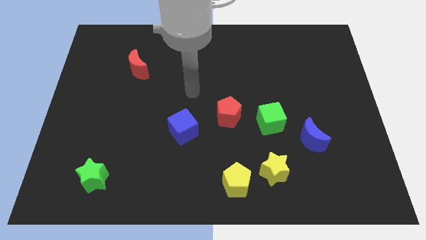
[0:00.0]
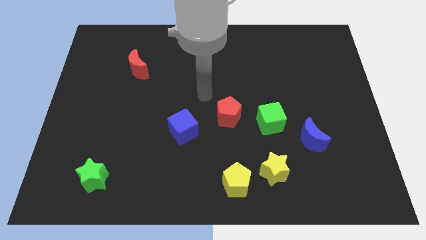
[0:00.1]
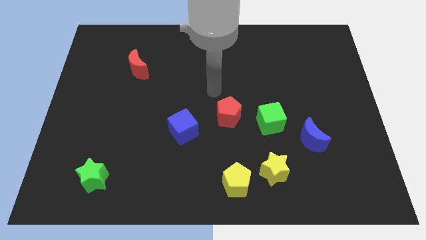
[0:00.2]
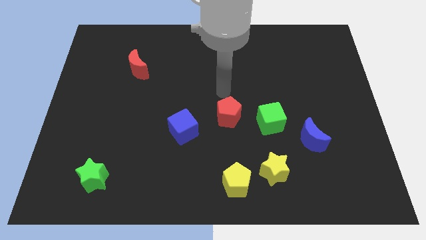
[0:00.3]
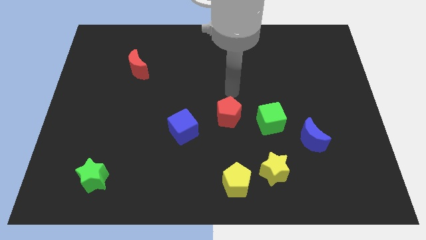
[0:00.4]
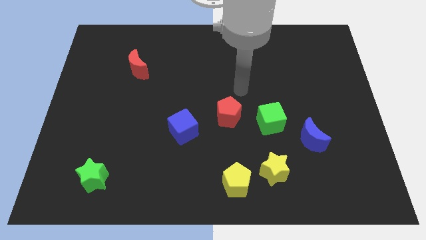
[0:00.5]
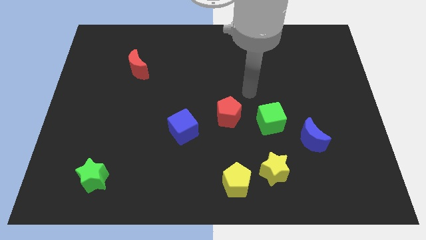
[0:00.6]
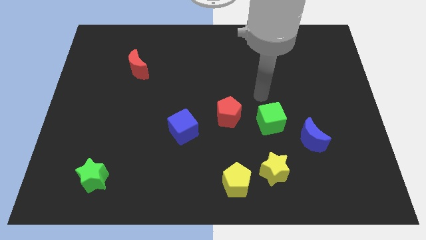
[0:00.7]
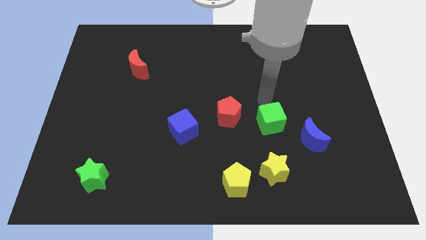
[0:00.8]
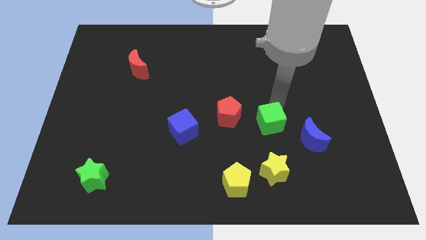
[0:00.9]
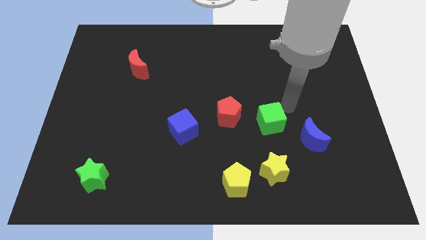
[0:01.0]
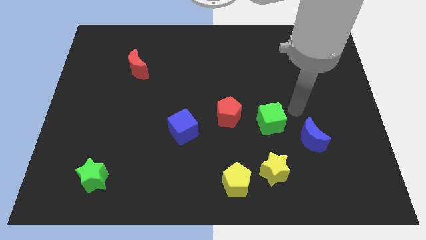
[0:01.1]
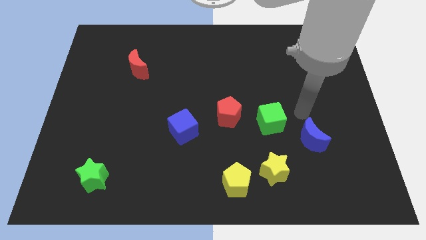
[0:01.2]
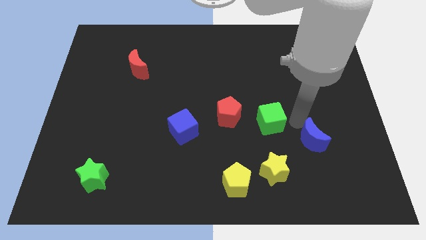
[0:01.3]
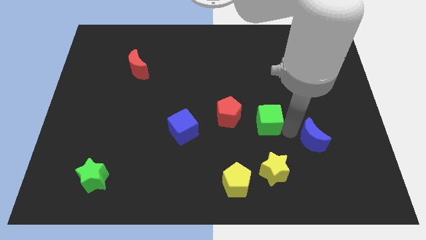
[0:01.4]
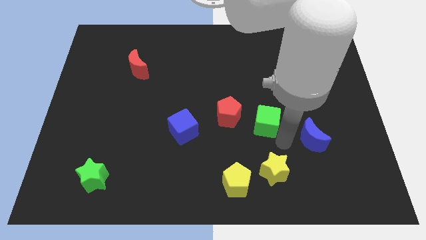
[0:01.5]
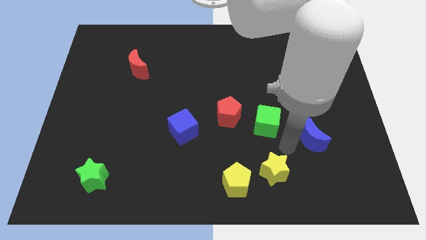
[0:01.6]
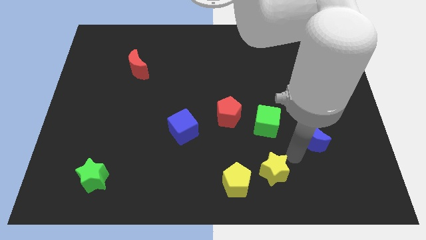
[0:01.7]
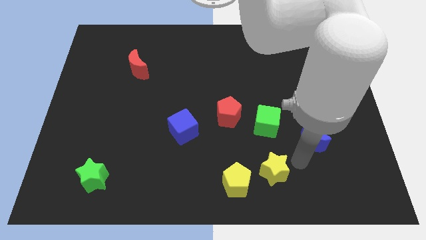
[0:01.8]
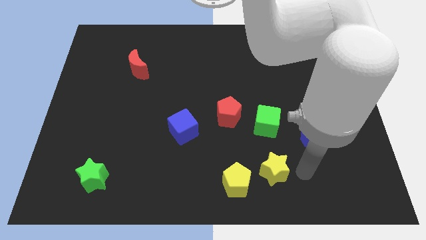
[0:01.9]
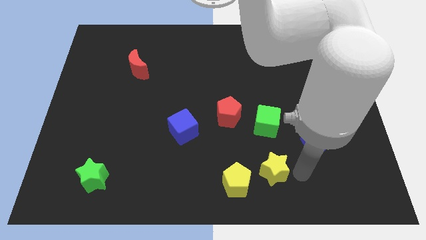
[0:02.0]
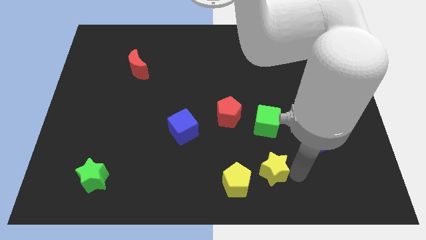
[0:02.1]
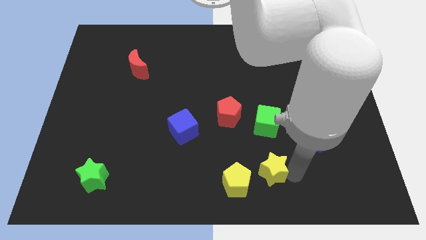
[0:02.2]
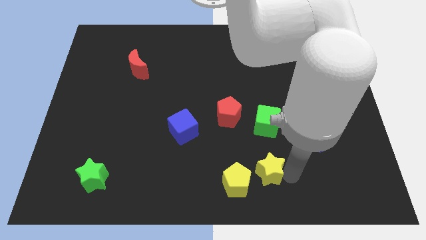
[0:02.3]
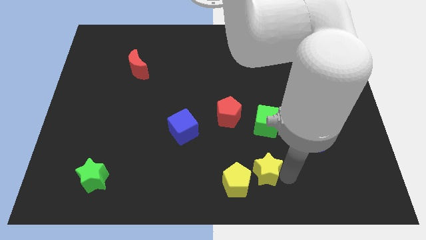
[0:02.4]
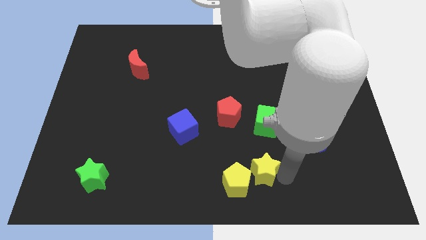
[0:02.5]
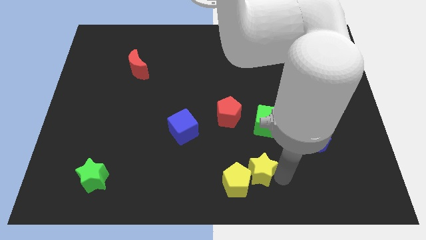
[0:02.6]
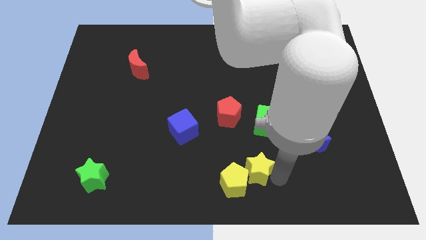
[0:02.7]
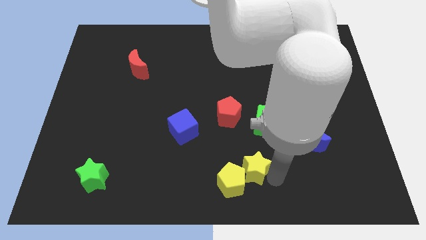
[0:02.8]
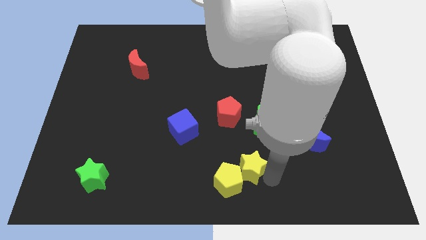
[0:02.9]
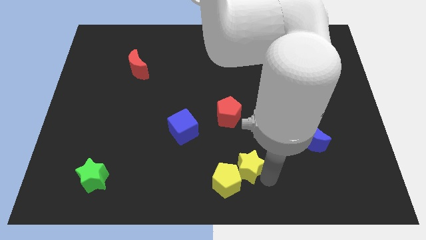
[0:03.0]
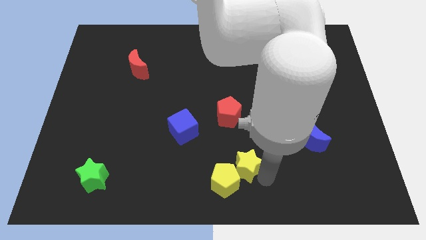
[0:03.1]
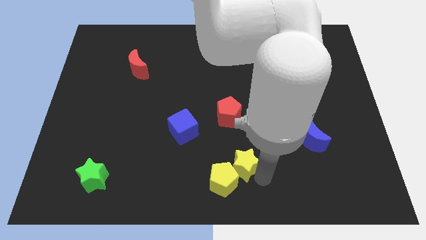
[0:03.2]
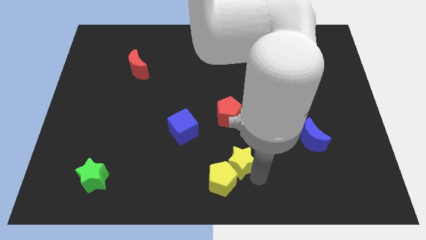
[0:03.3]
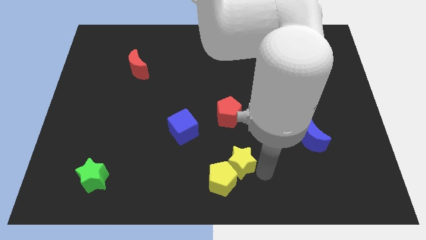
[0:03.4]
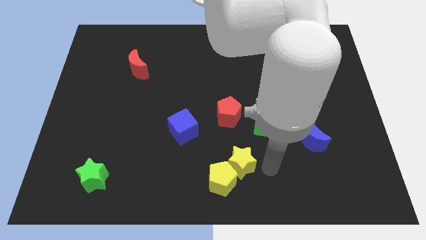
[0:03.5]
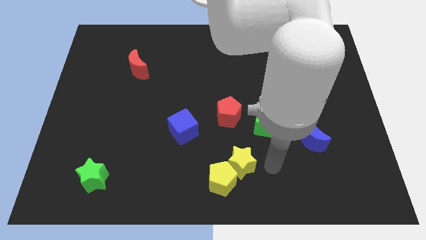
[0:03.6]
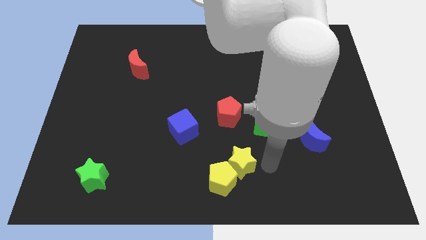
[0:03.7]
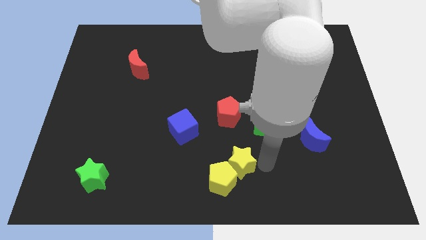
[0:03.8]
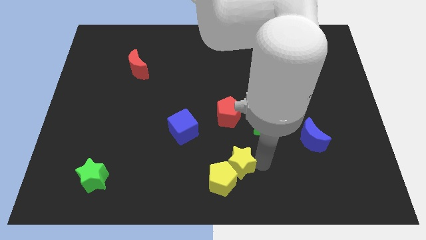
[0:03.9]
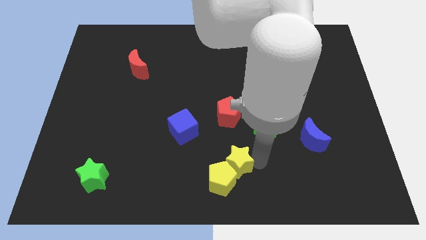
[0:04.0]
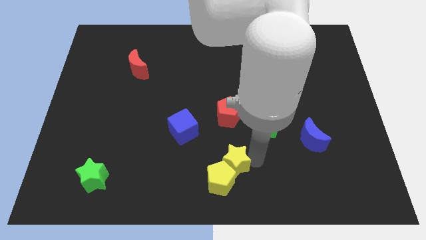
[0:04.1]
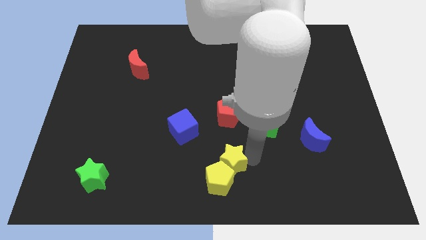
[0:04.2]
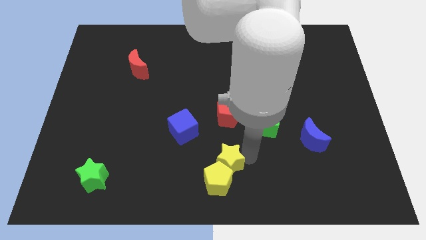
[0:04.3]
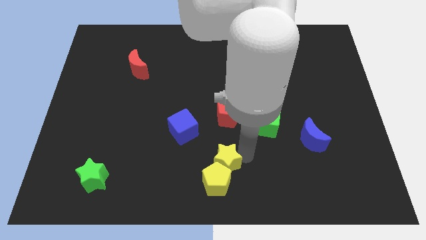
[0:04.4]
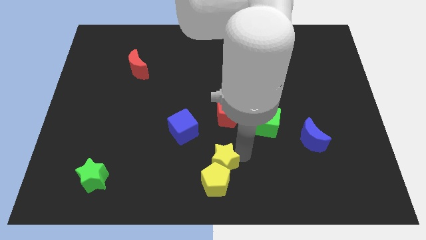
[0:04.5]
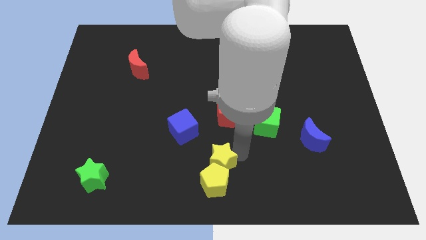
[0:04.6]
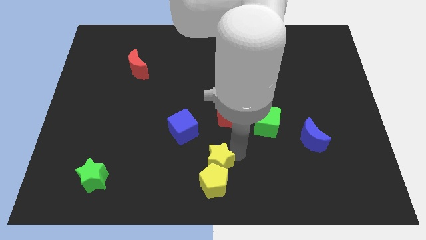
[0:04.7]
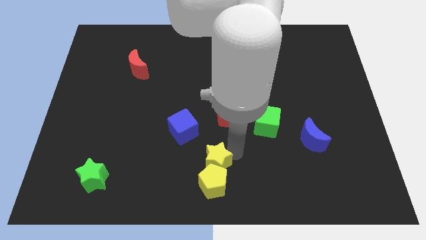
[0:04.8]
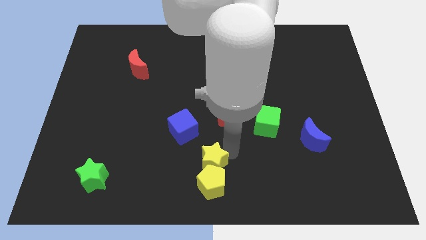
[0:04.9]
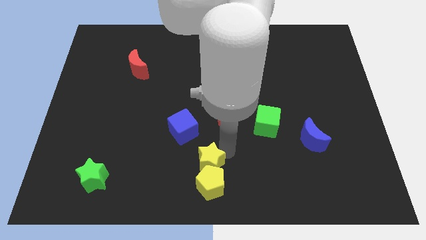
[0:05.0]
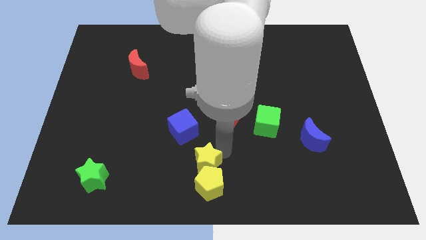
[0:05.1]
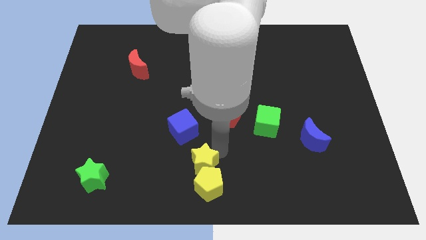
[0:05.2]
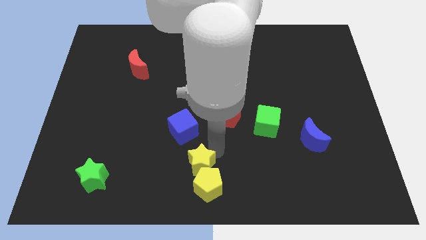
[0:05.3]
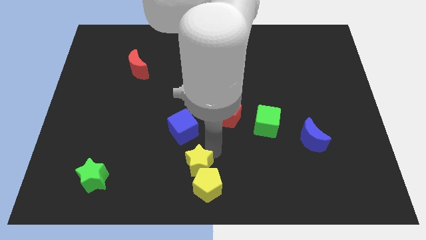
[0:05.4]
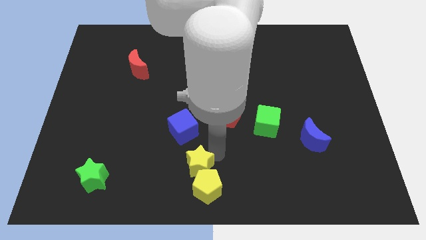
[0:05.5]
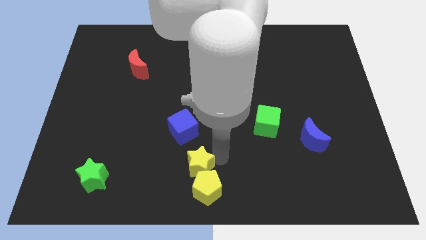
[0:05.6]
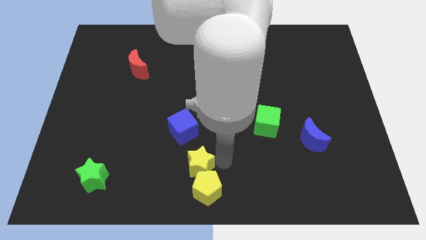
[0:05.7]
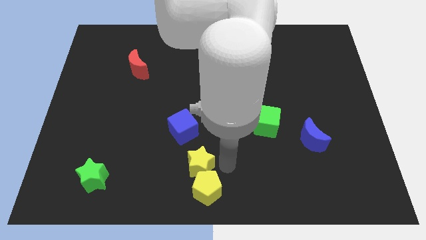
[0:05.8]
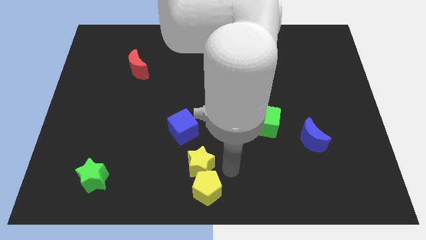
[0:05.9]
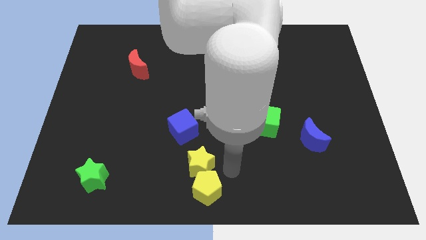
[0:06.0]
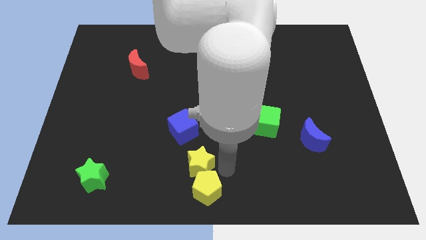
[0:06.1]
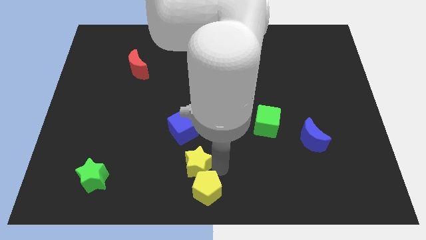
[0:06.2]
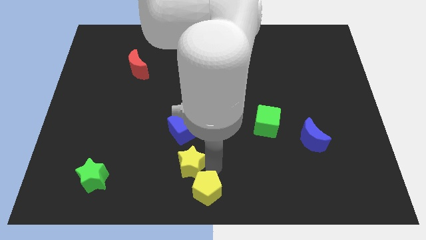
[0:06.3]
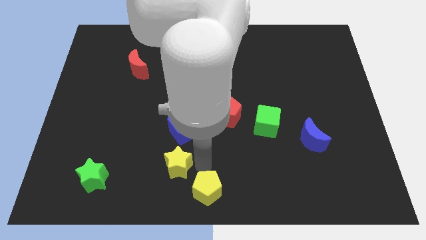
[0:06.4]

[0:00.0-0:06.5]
move the yellow star left

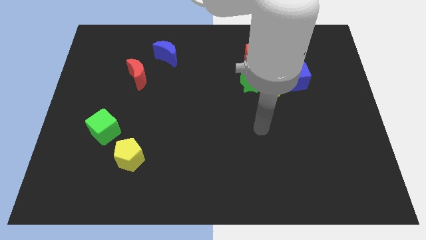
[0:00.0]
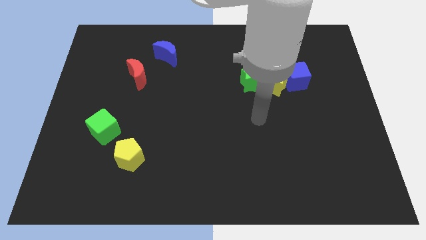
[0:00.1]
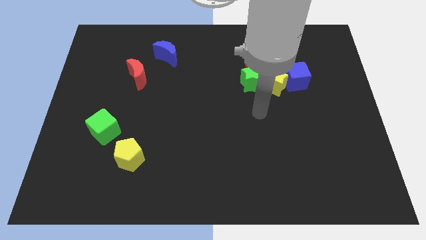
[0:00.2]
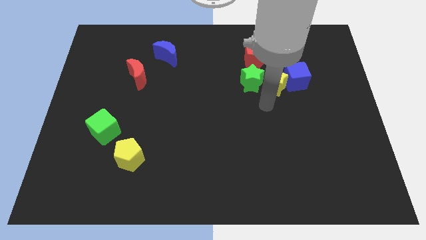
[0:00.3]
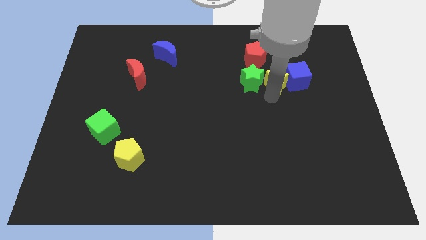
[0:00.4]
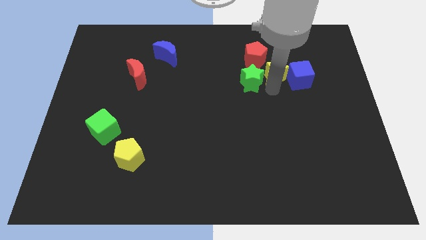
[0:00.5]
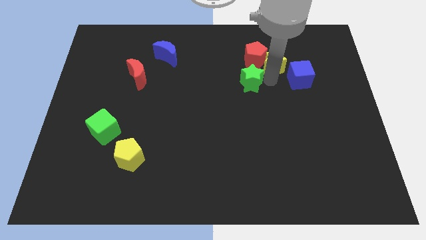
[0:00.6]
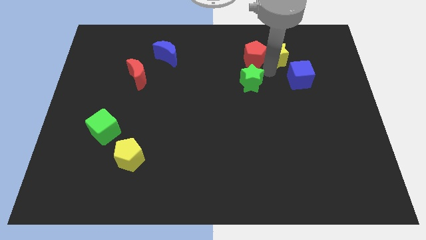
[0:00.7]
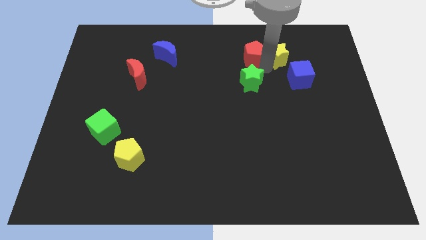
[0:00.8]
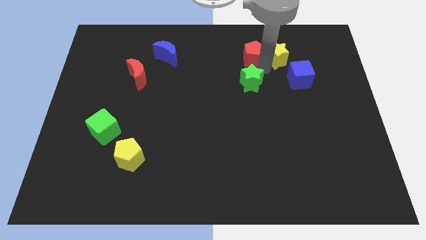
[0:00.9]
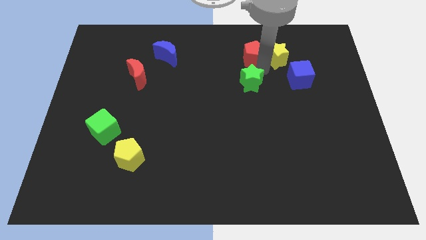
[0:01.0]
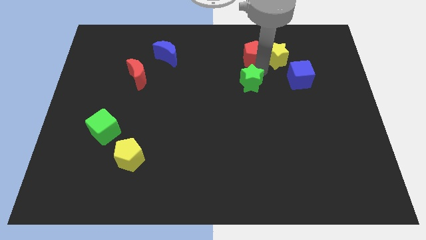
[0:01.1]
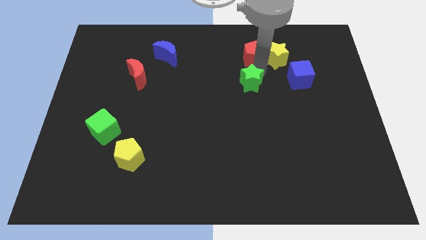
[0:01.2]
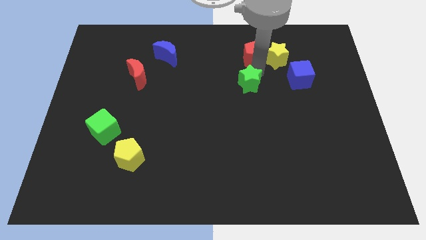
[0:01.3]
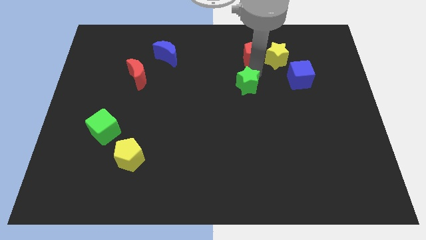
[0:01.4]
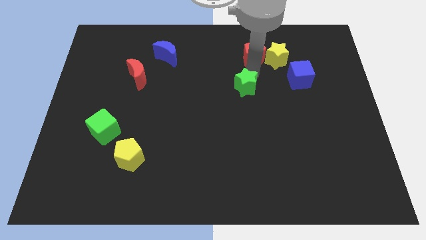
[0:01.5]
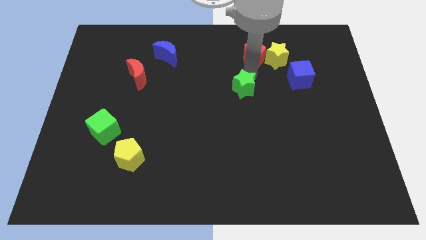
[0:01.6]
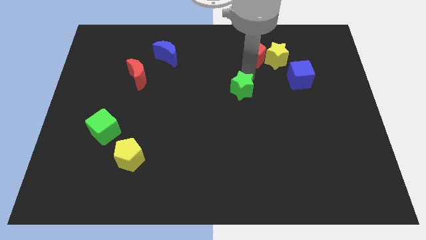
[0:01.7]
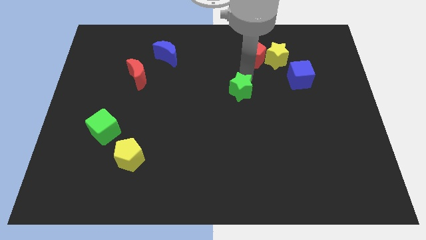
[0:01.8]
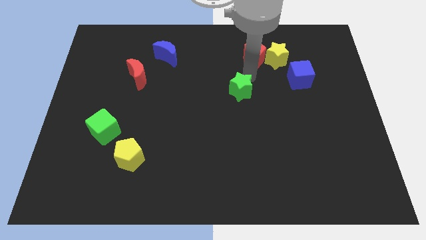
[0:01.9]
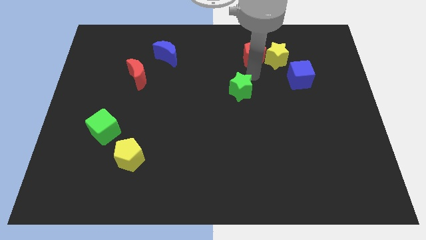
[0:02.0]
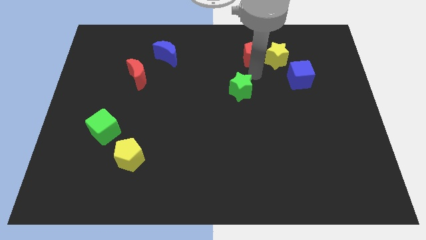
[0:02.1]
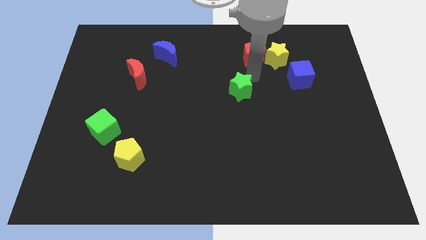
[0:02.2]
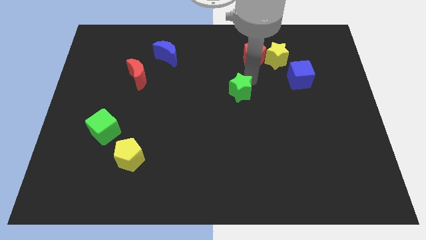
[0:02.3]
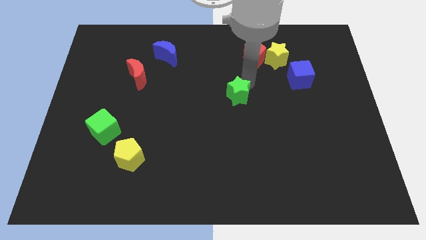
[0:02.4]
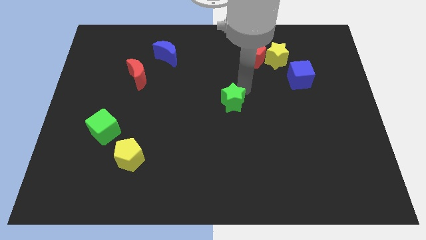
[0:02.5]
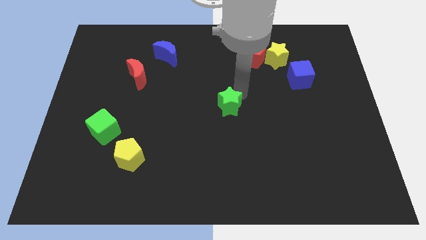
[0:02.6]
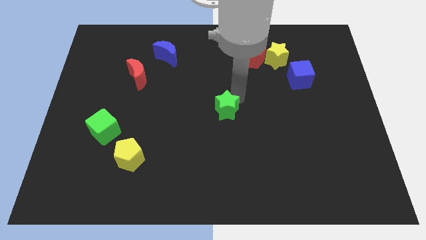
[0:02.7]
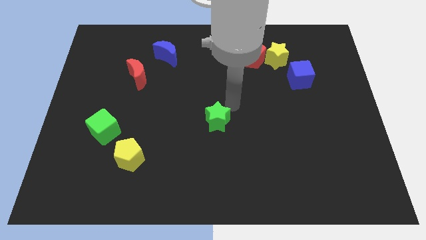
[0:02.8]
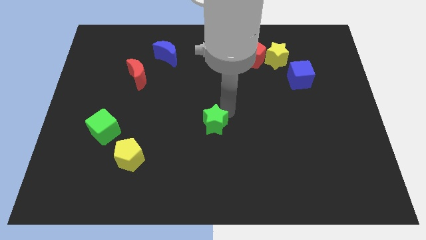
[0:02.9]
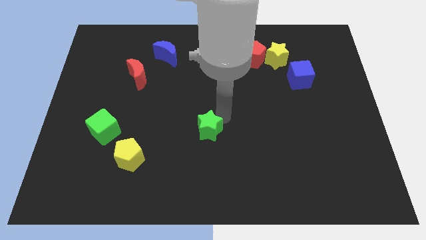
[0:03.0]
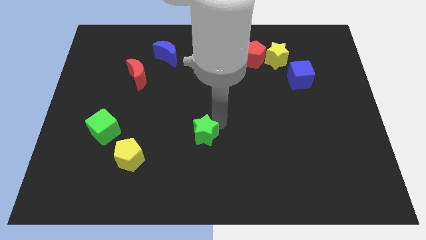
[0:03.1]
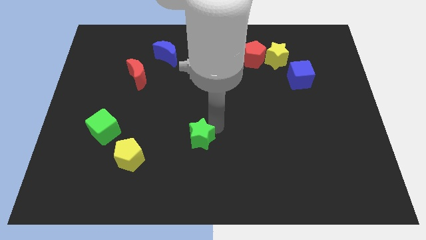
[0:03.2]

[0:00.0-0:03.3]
slide the green star diagonally down and left
